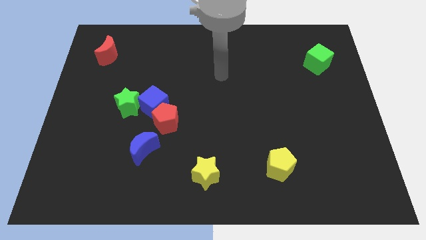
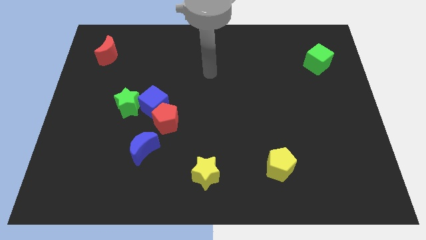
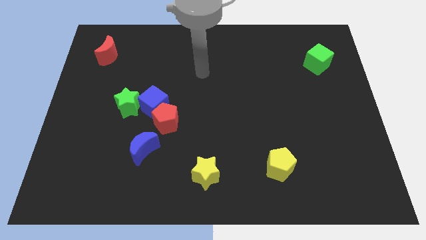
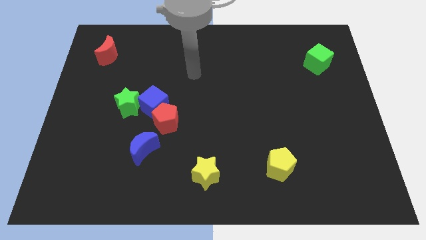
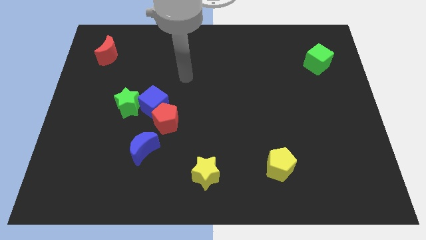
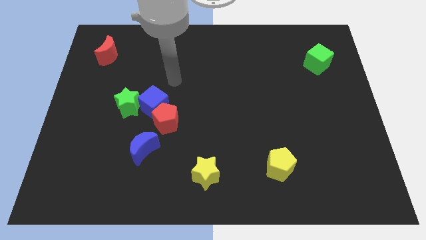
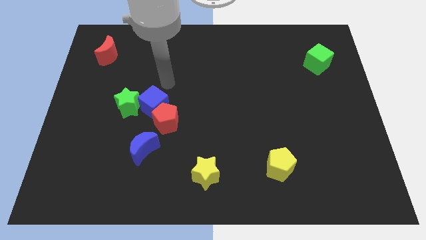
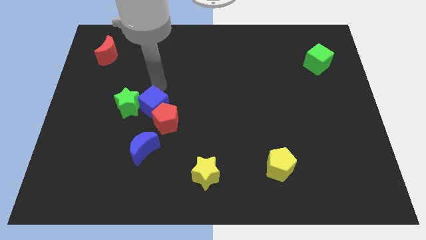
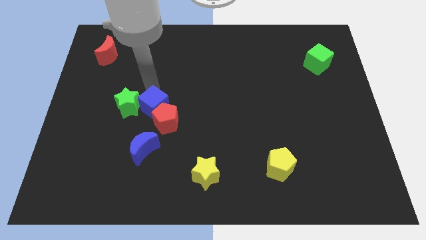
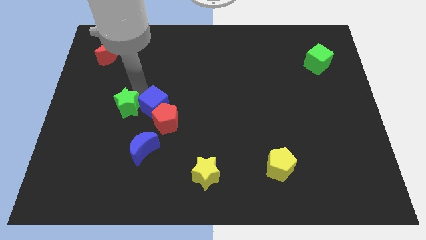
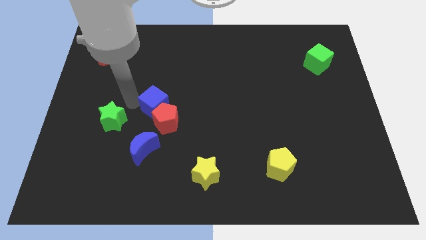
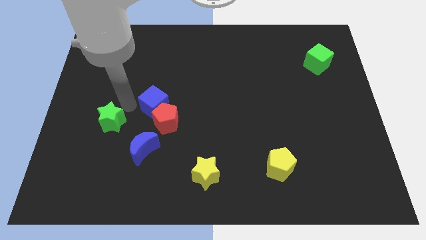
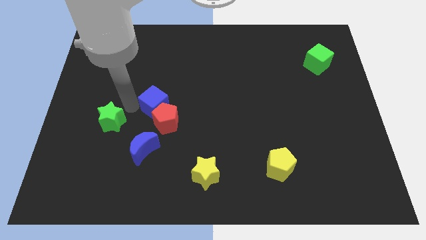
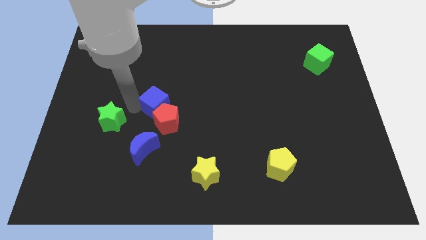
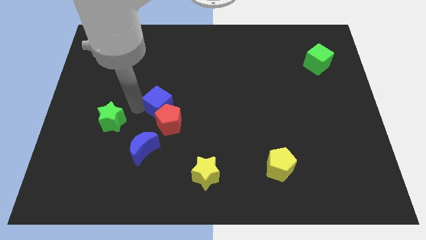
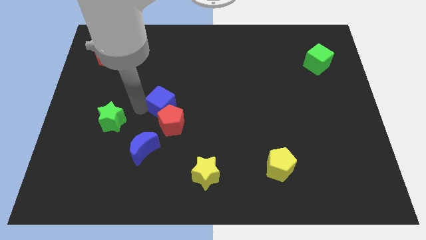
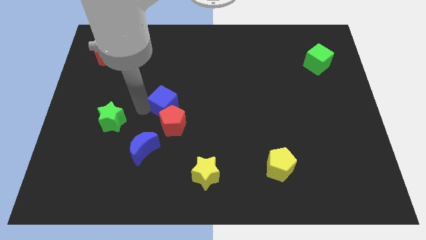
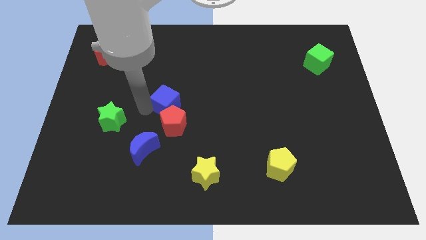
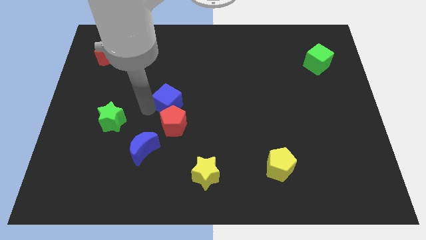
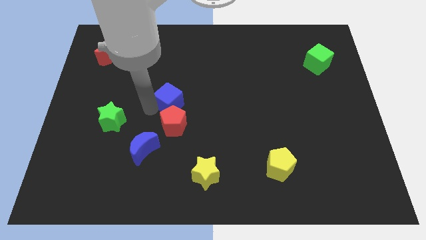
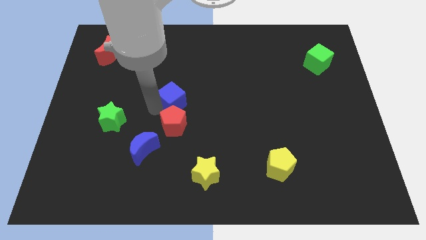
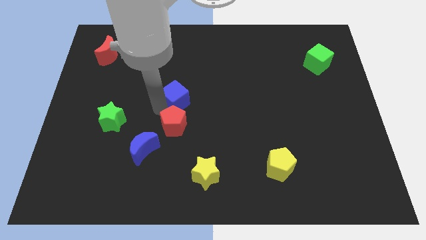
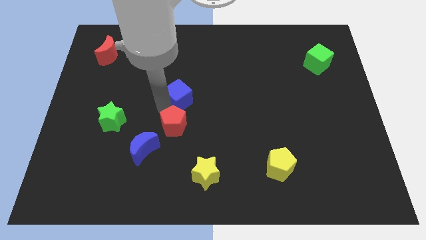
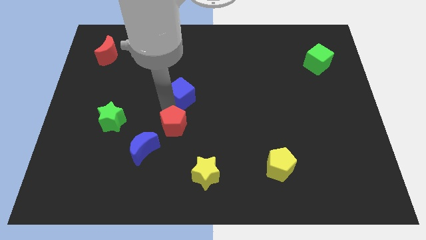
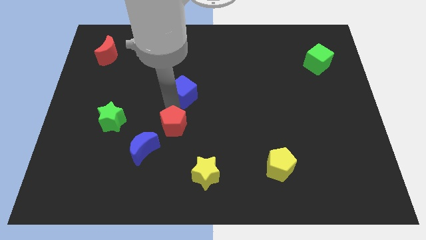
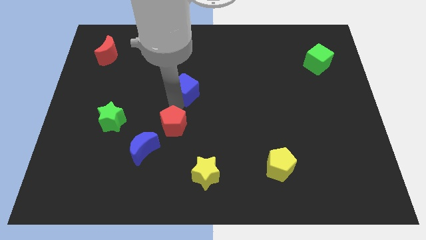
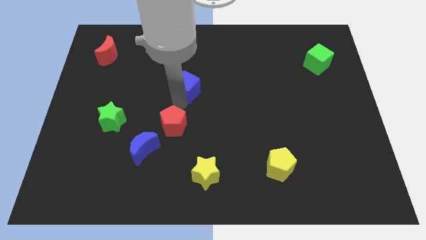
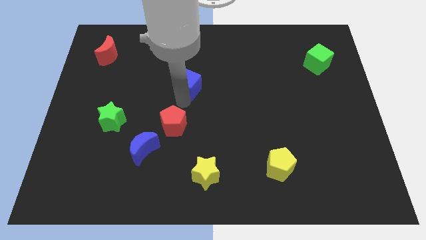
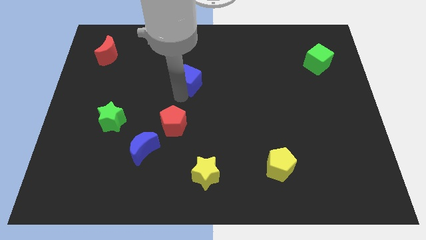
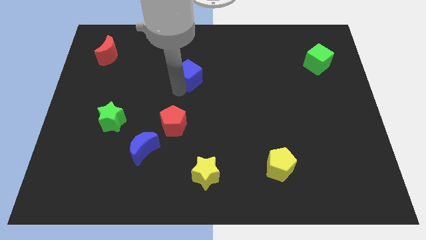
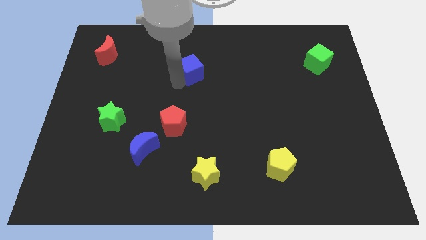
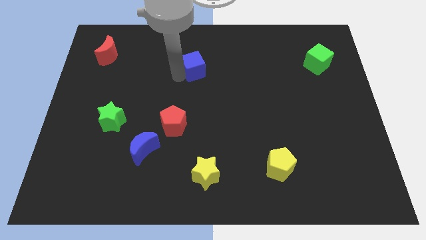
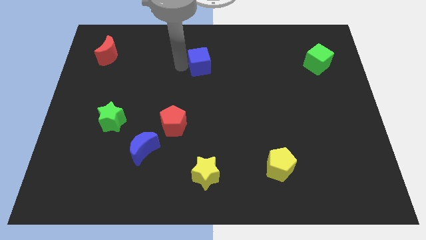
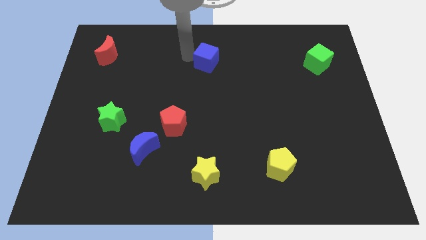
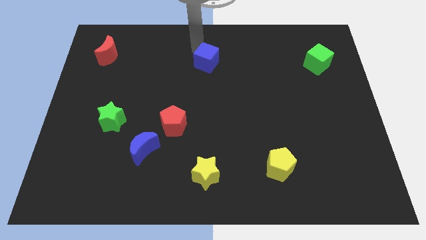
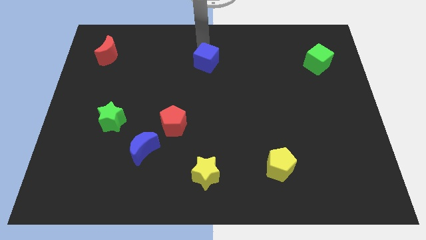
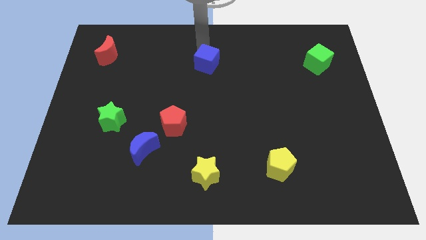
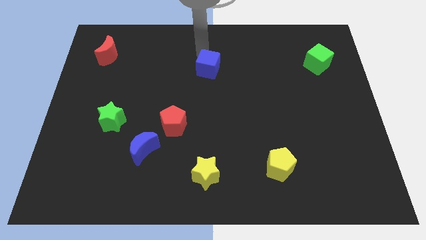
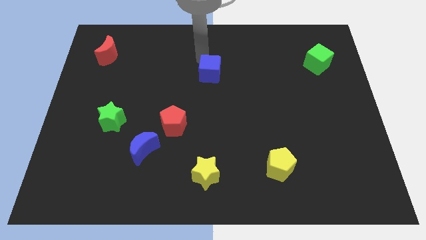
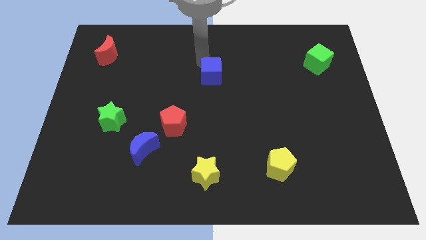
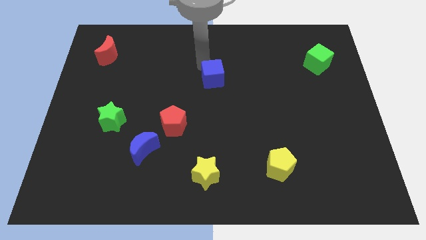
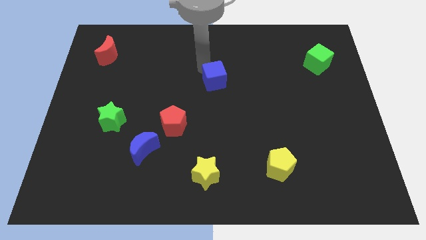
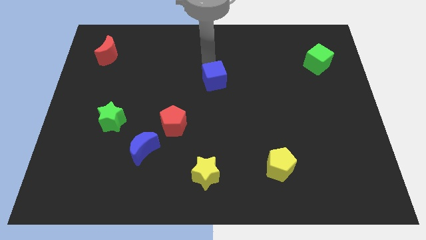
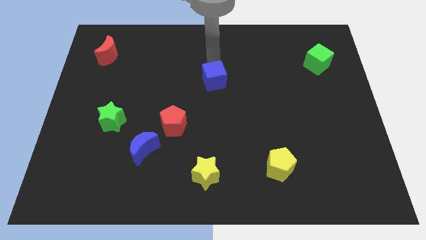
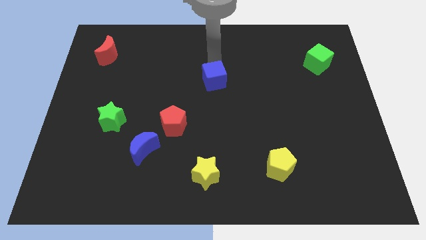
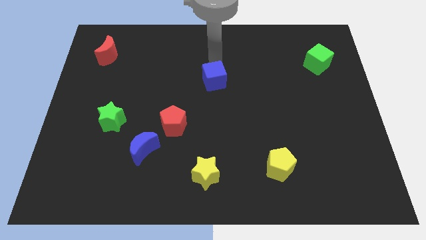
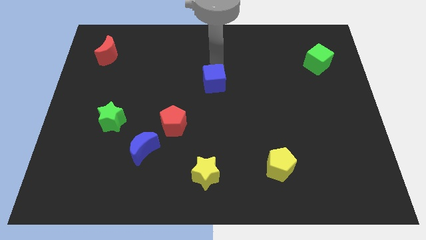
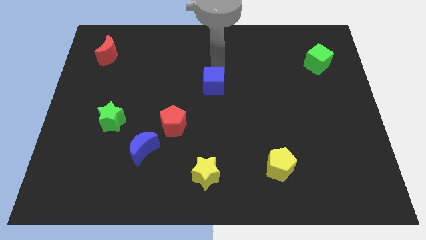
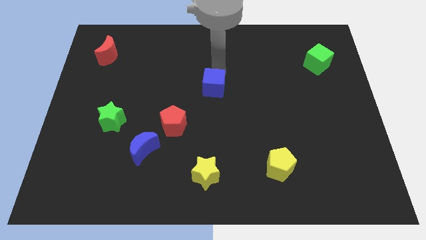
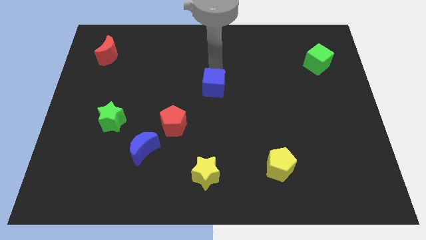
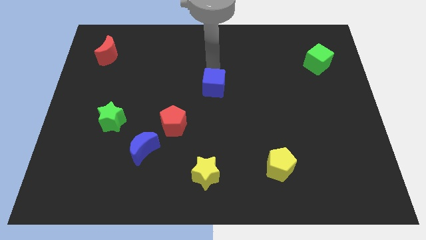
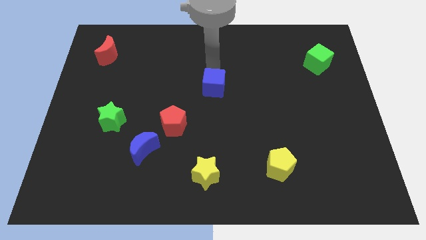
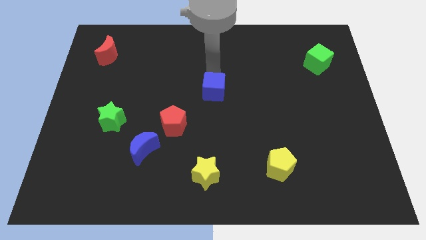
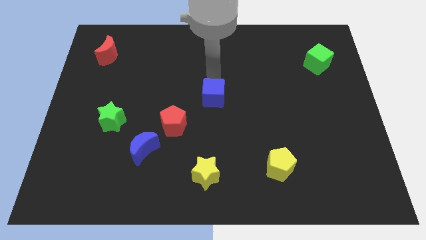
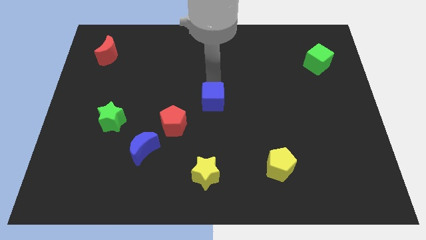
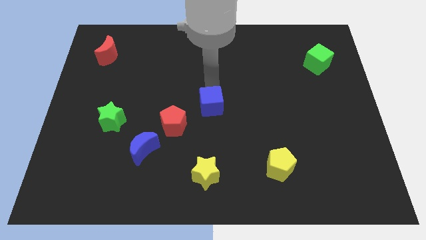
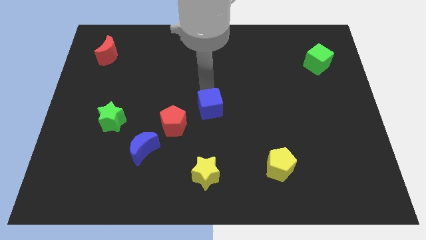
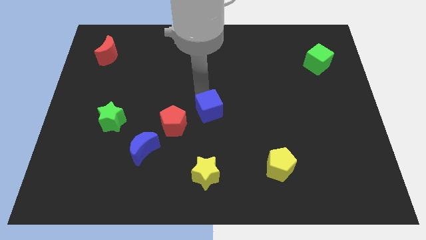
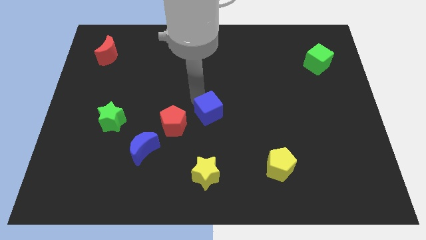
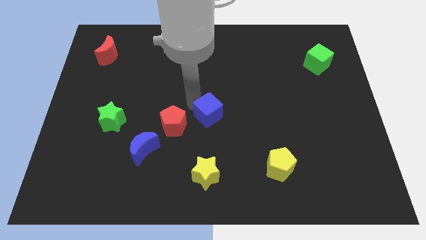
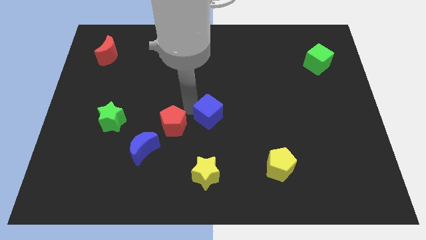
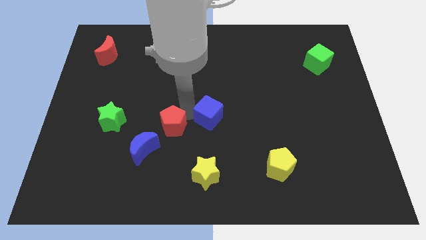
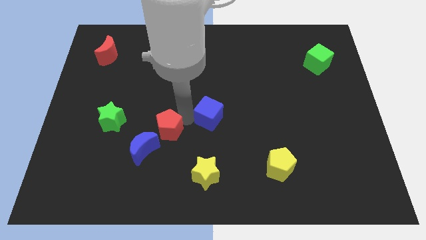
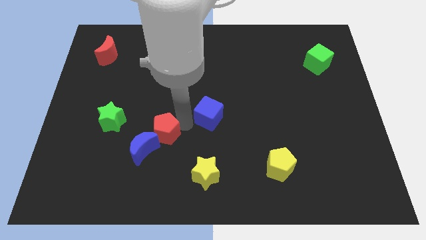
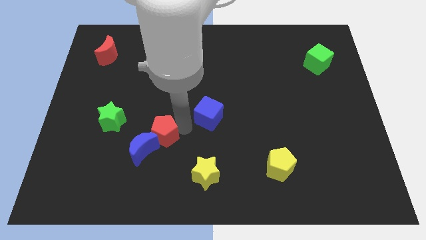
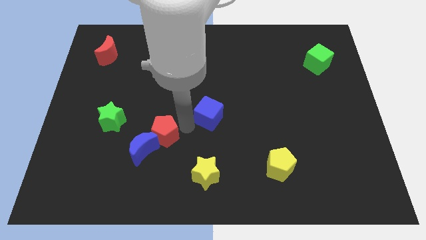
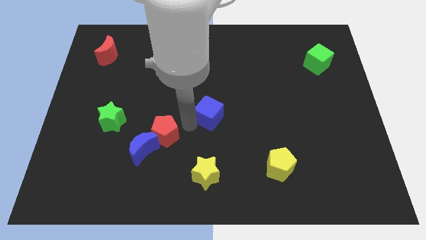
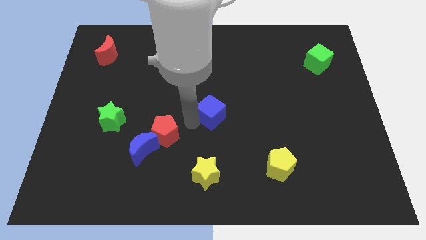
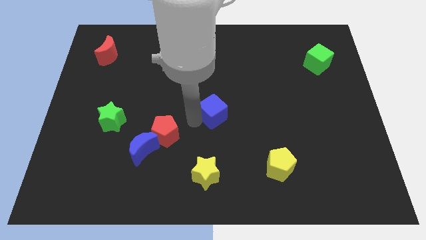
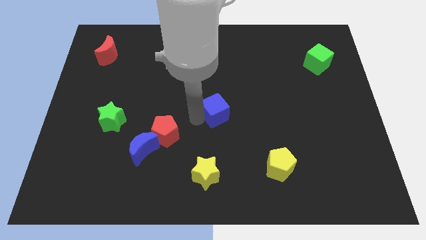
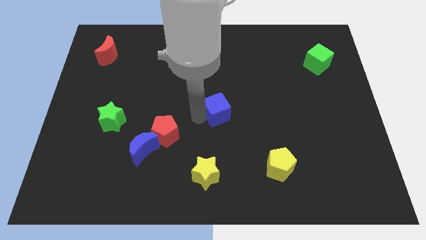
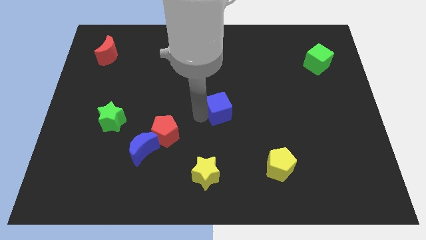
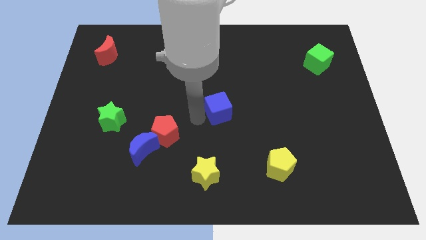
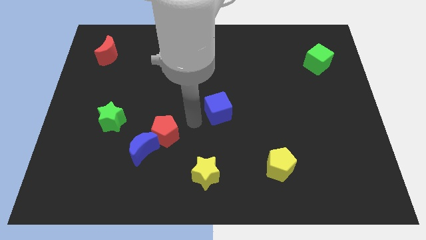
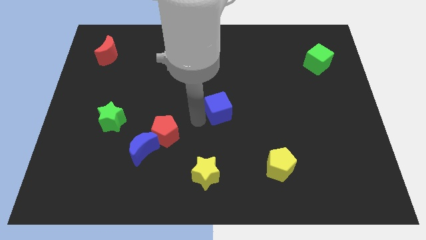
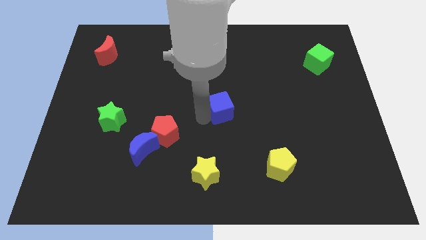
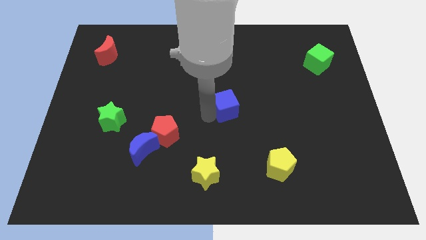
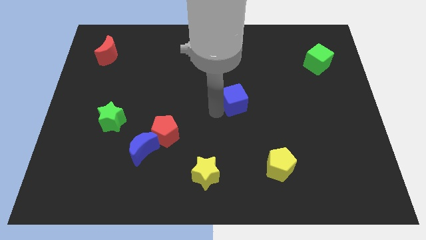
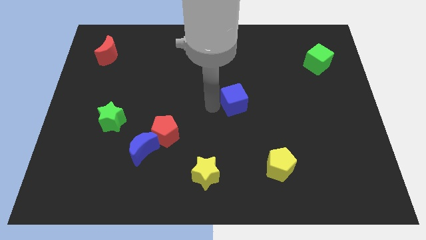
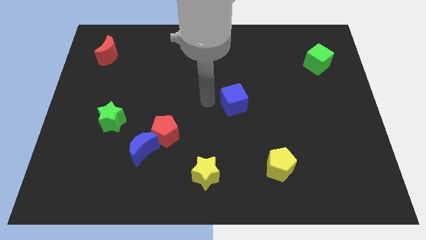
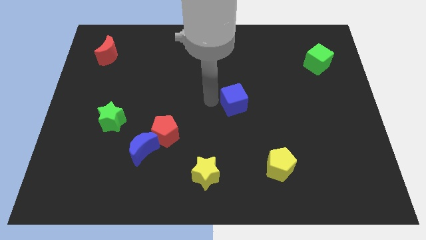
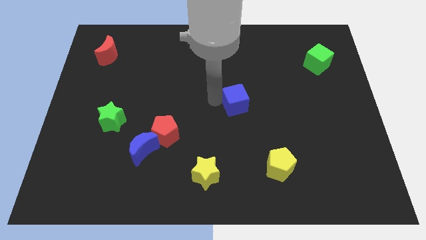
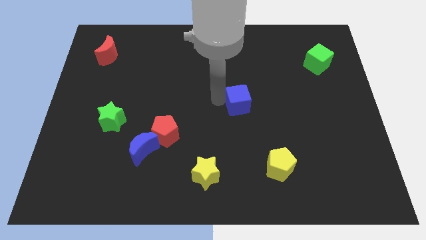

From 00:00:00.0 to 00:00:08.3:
slide the blue cube right
